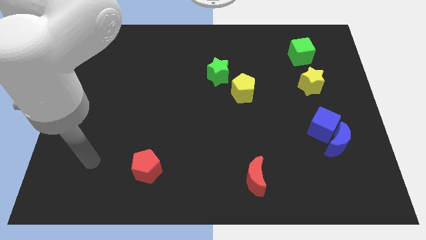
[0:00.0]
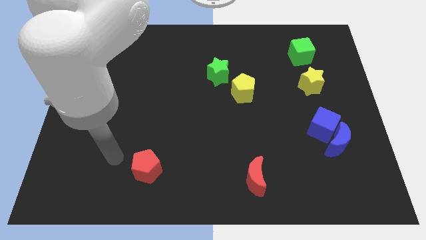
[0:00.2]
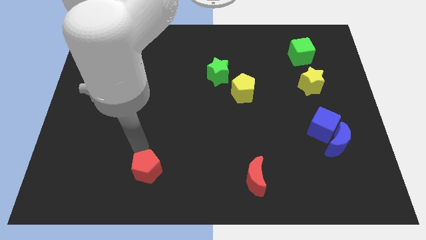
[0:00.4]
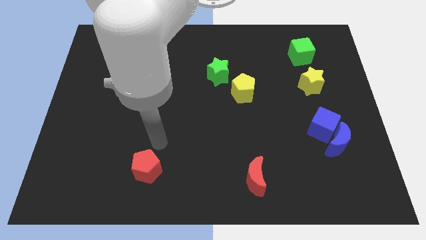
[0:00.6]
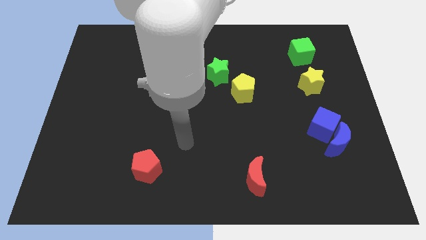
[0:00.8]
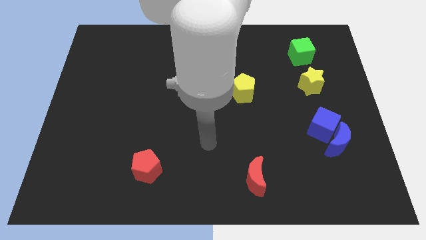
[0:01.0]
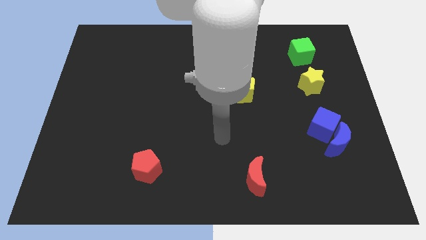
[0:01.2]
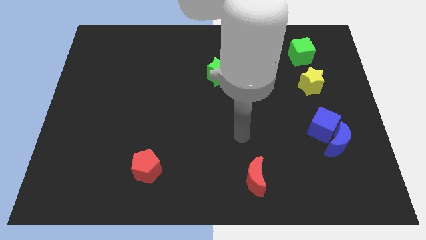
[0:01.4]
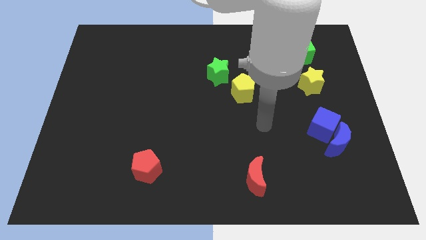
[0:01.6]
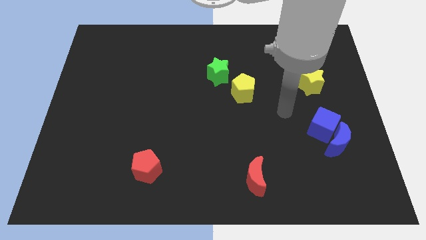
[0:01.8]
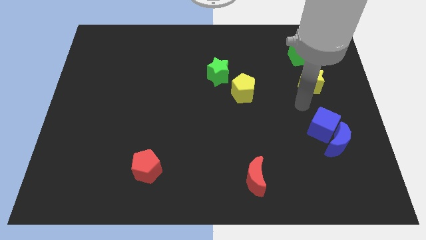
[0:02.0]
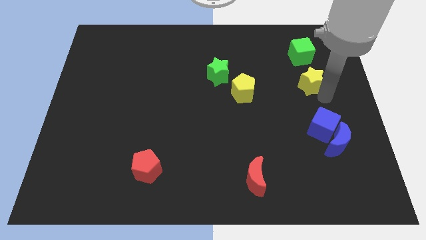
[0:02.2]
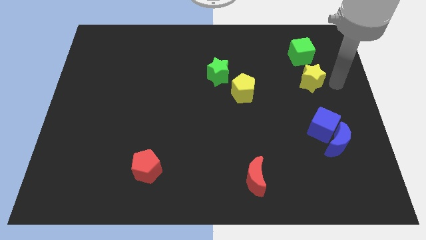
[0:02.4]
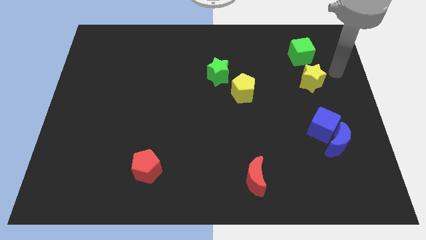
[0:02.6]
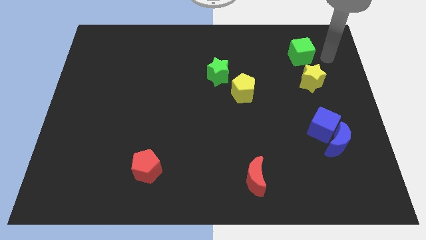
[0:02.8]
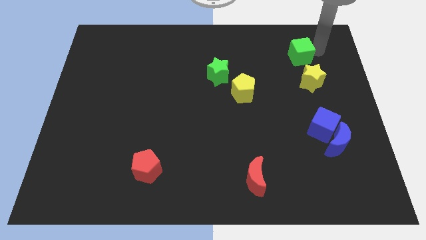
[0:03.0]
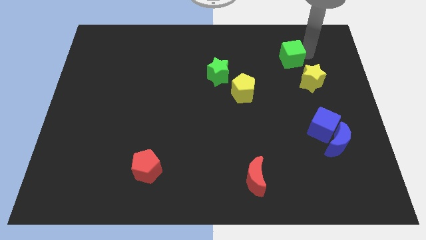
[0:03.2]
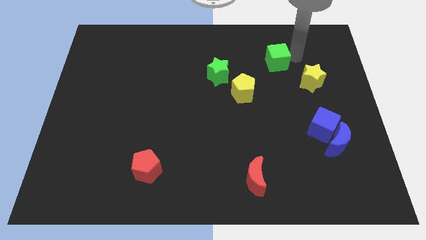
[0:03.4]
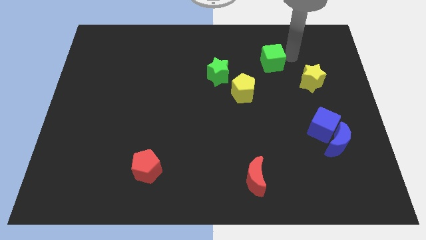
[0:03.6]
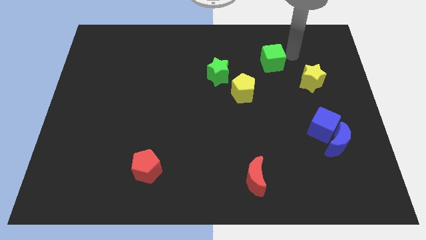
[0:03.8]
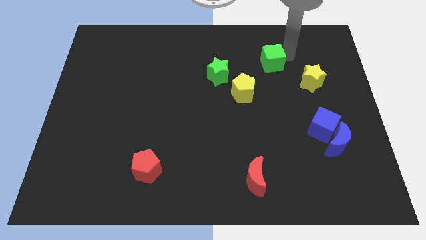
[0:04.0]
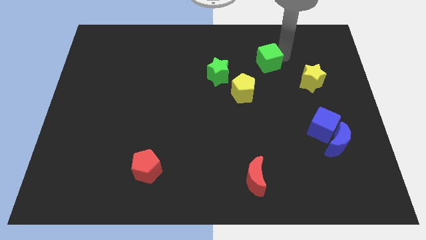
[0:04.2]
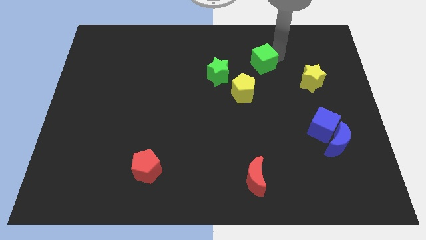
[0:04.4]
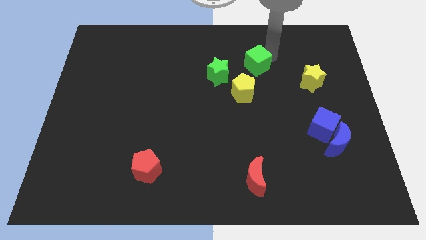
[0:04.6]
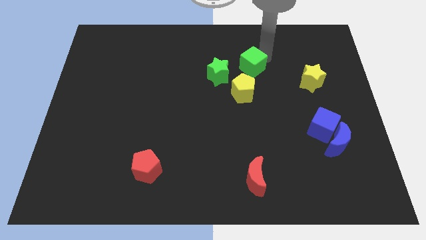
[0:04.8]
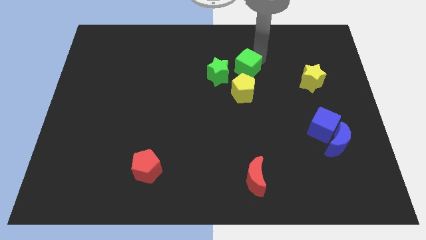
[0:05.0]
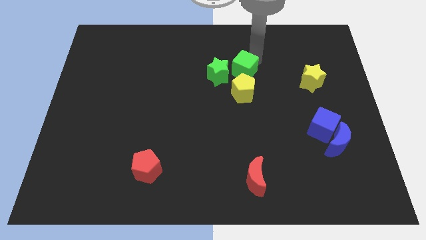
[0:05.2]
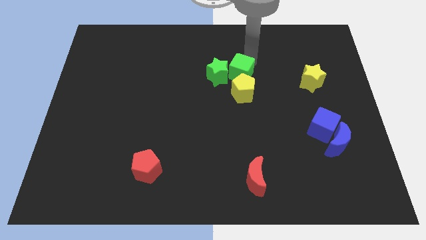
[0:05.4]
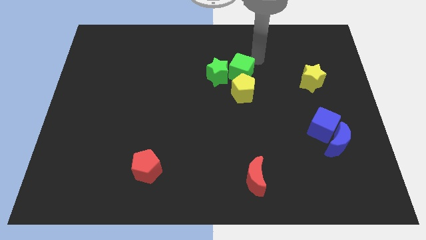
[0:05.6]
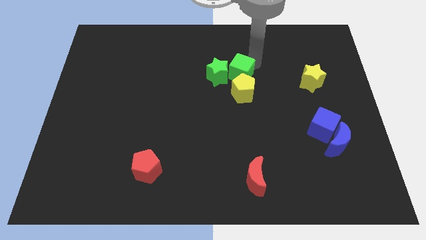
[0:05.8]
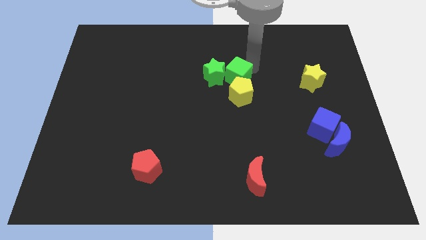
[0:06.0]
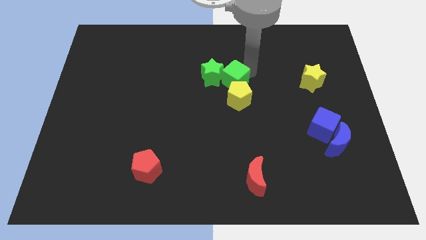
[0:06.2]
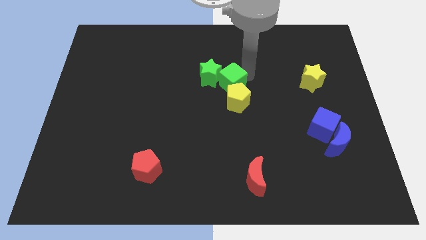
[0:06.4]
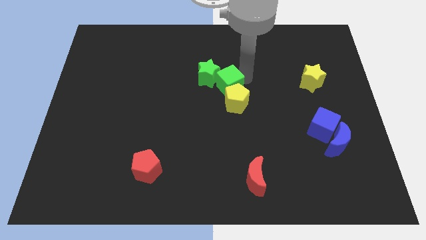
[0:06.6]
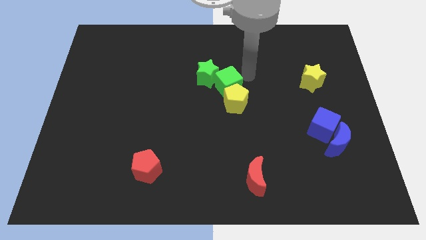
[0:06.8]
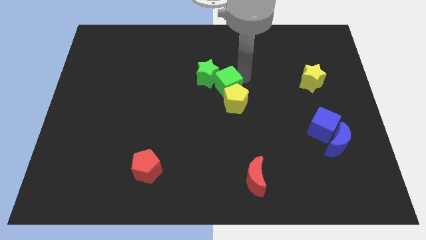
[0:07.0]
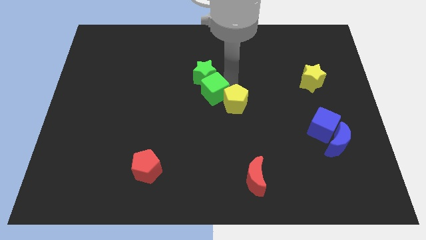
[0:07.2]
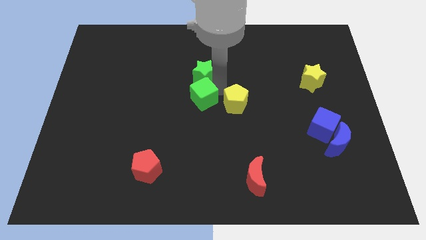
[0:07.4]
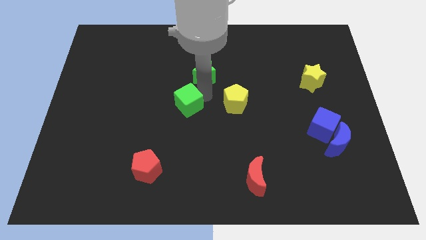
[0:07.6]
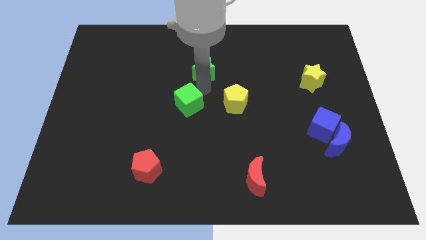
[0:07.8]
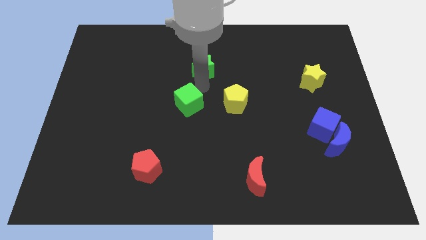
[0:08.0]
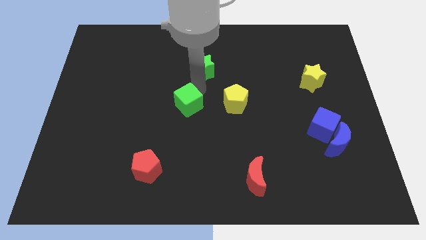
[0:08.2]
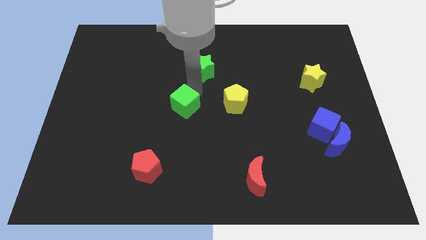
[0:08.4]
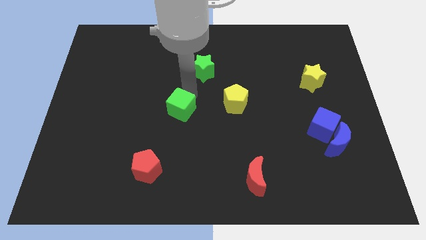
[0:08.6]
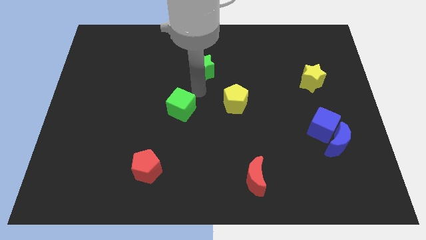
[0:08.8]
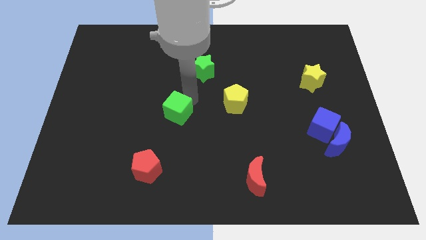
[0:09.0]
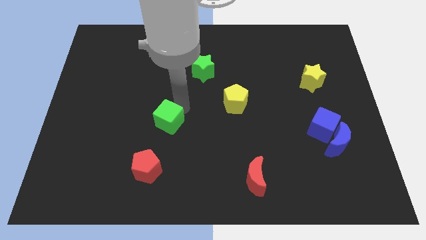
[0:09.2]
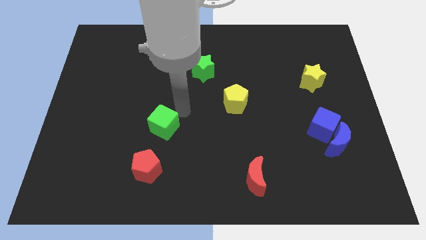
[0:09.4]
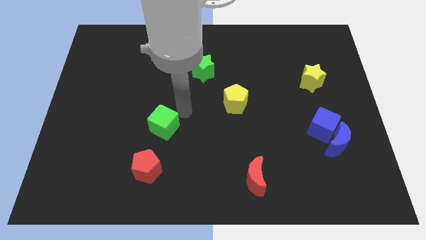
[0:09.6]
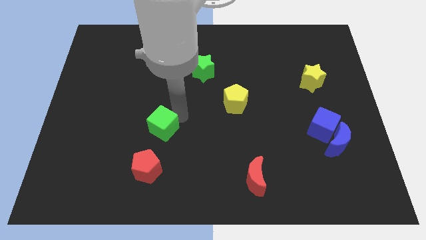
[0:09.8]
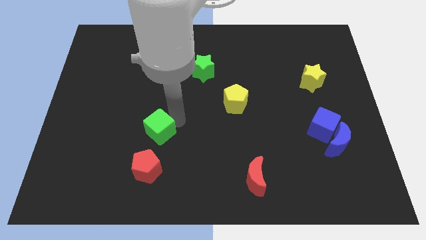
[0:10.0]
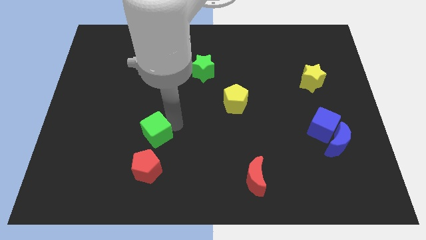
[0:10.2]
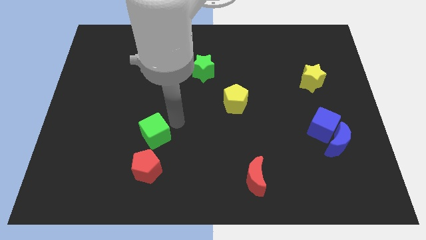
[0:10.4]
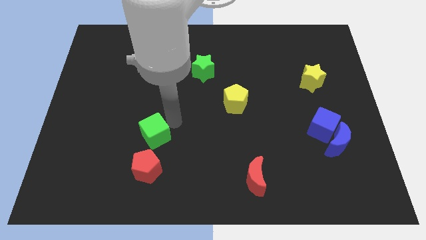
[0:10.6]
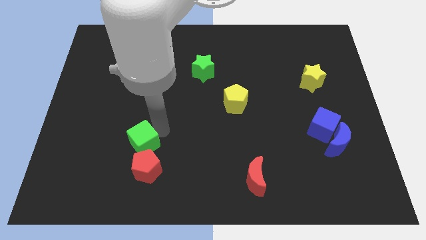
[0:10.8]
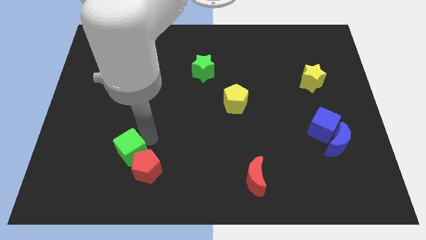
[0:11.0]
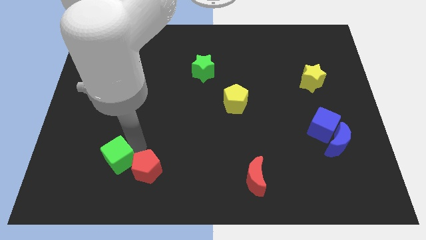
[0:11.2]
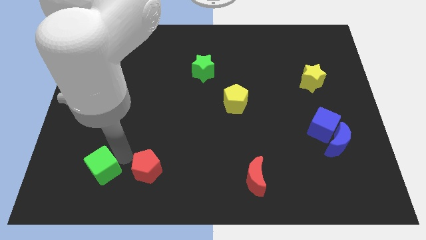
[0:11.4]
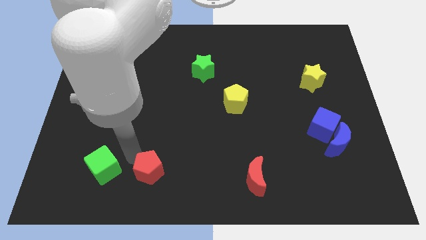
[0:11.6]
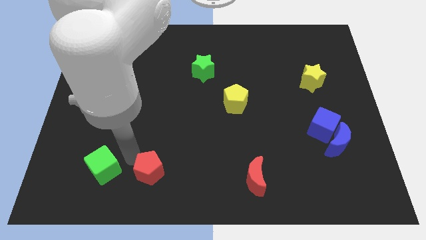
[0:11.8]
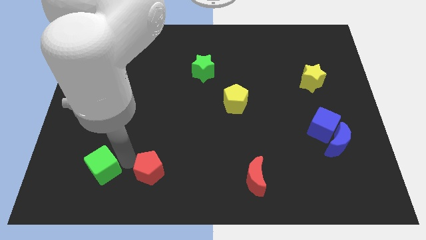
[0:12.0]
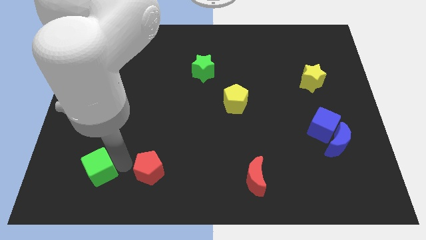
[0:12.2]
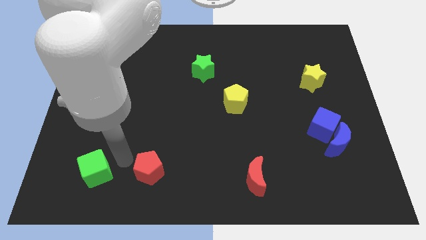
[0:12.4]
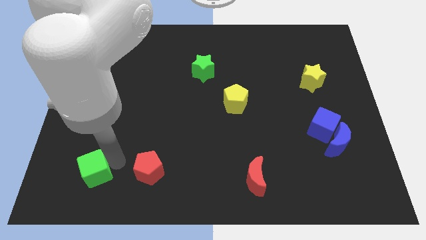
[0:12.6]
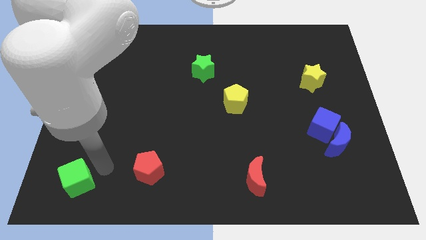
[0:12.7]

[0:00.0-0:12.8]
slide the green cube to the bottom left of the board

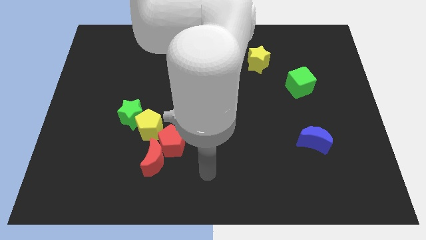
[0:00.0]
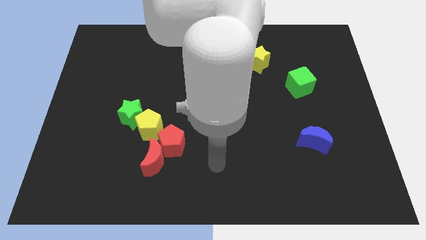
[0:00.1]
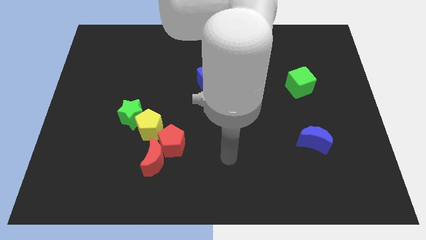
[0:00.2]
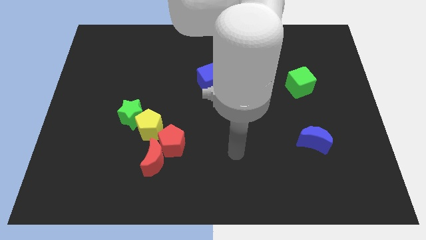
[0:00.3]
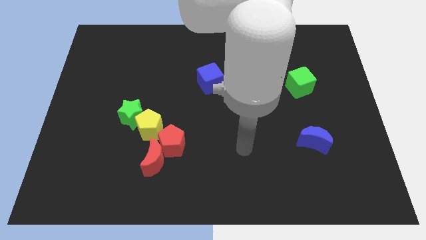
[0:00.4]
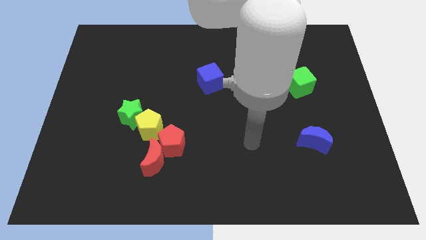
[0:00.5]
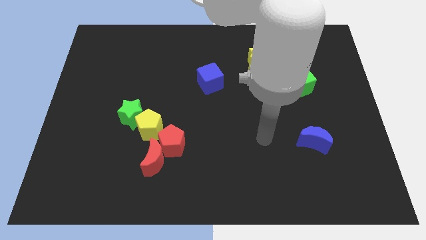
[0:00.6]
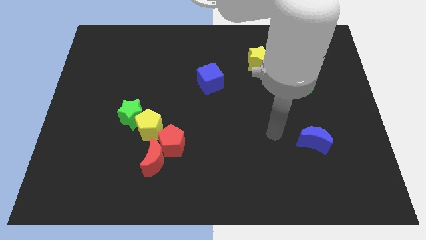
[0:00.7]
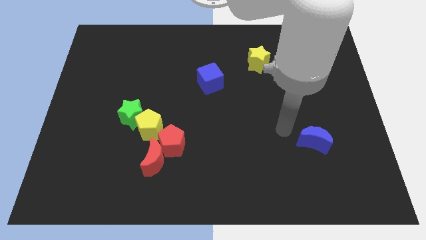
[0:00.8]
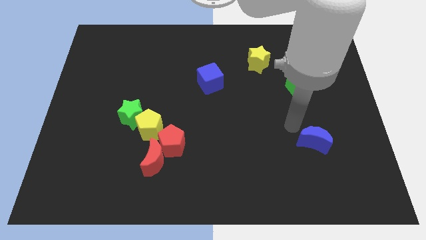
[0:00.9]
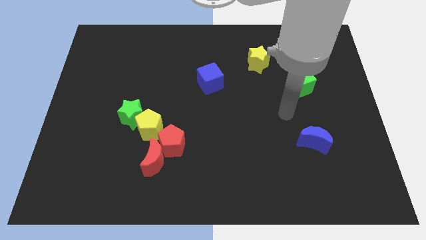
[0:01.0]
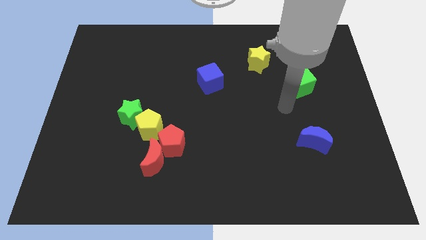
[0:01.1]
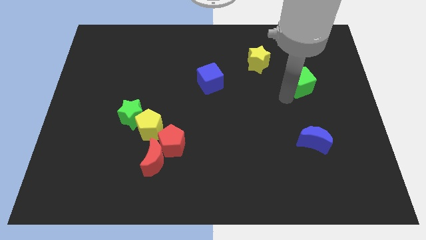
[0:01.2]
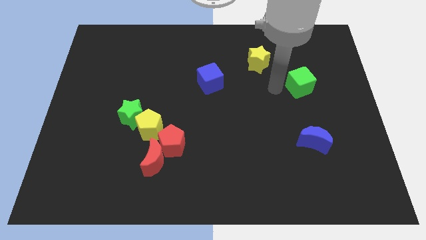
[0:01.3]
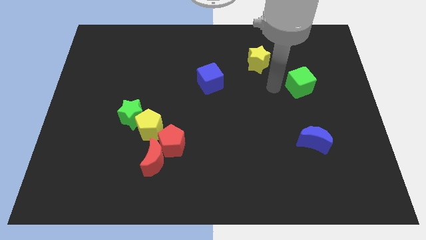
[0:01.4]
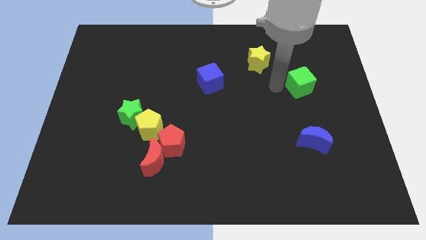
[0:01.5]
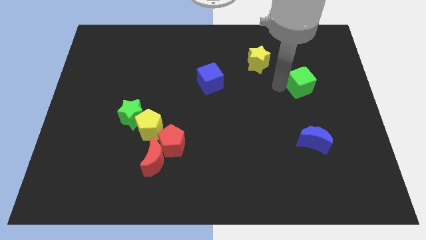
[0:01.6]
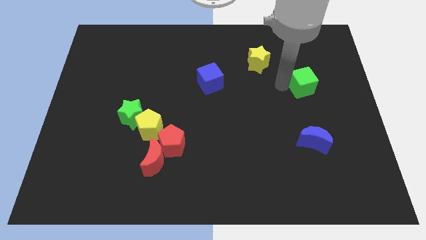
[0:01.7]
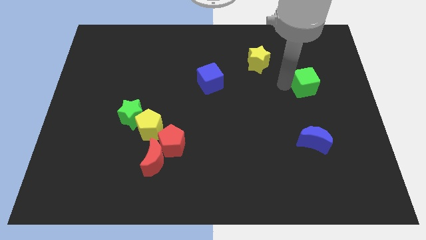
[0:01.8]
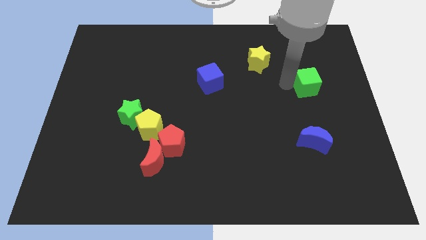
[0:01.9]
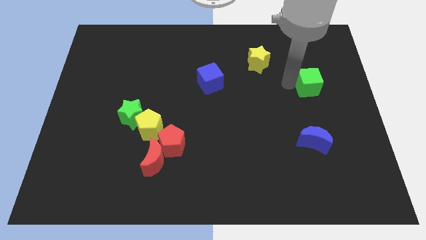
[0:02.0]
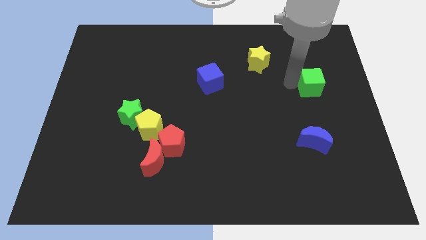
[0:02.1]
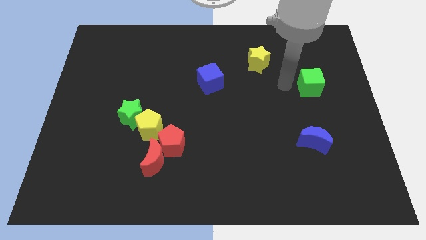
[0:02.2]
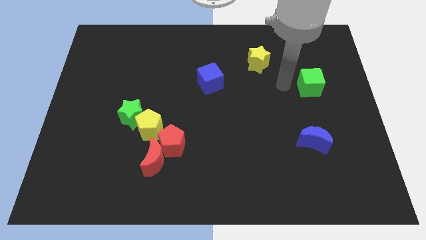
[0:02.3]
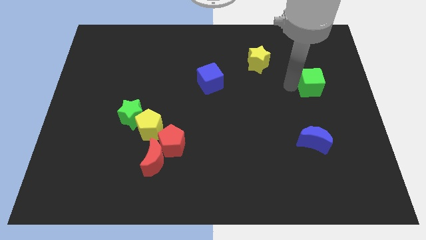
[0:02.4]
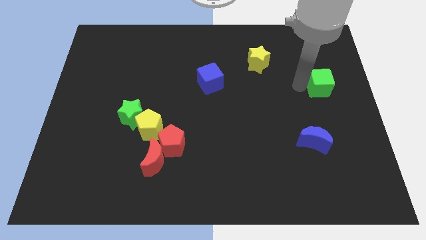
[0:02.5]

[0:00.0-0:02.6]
push the green cube to the center right
